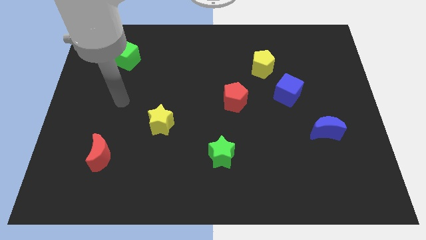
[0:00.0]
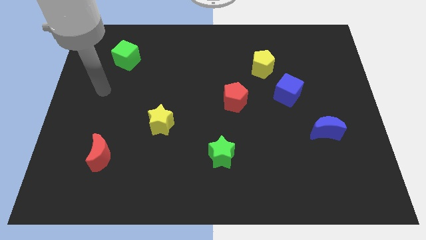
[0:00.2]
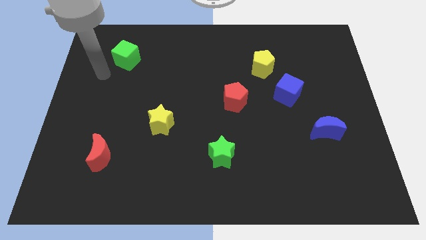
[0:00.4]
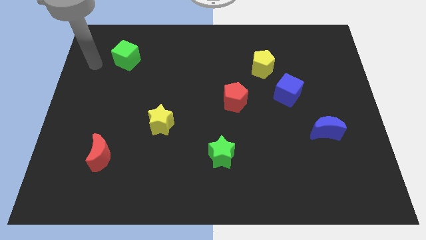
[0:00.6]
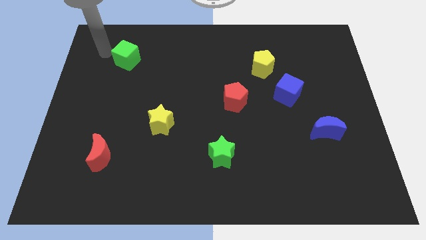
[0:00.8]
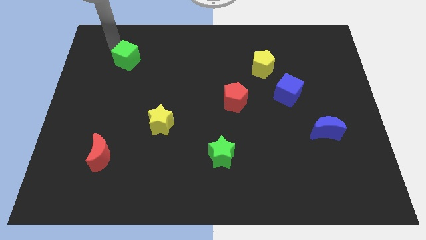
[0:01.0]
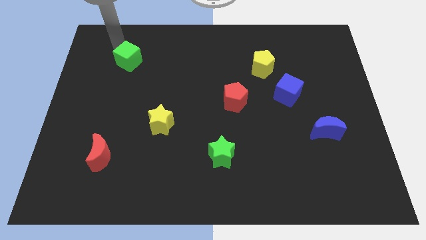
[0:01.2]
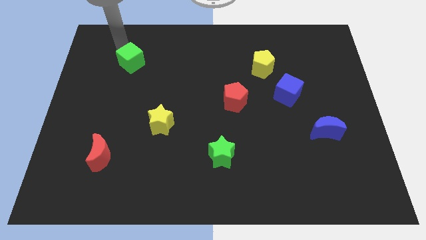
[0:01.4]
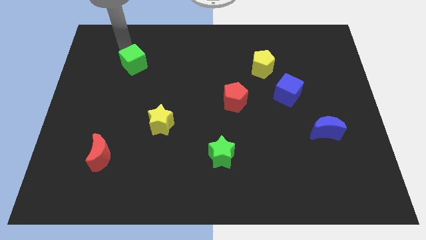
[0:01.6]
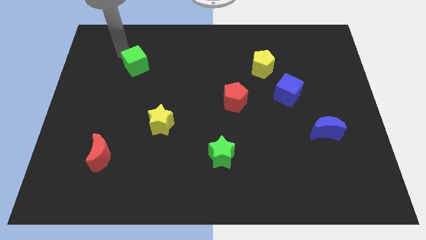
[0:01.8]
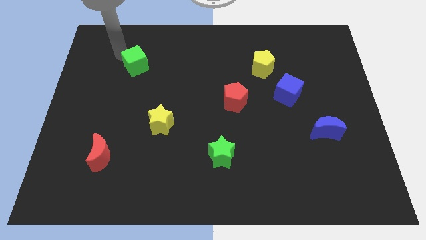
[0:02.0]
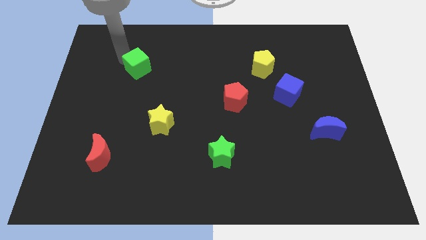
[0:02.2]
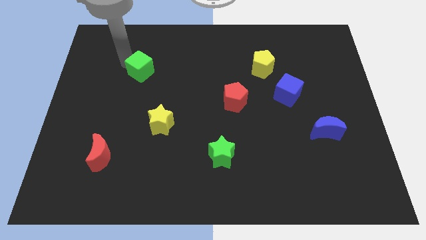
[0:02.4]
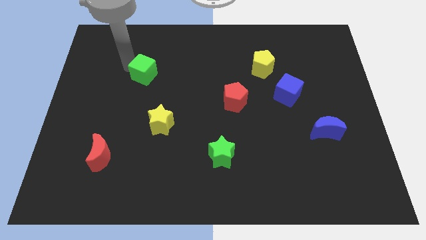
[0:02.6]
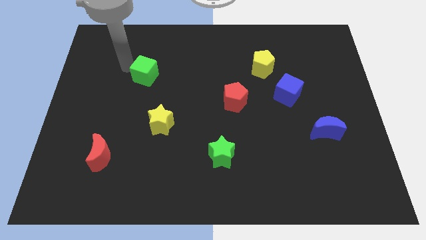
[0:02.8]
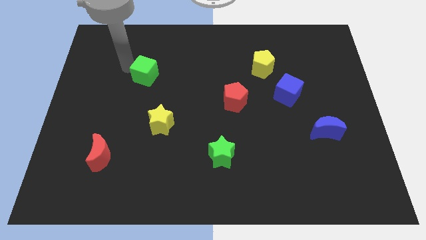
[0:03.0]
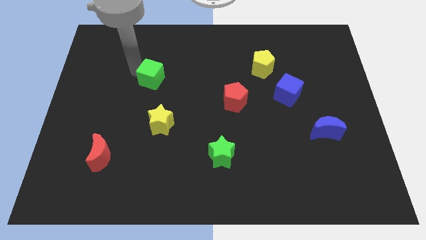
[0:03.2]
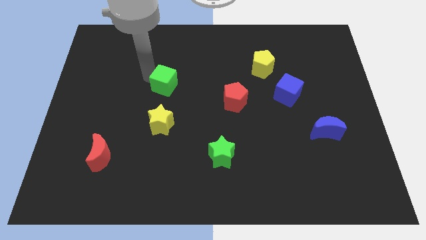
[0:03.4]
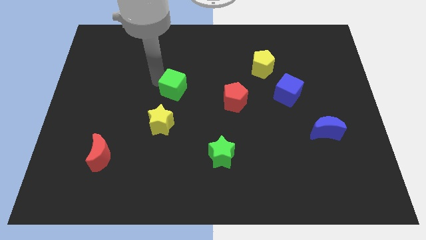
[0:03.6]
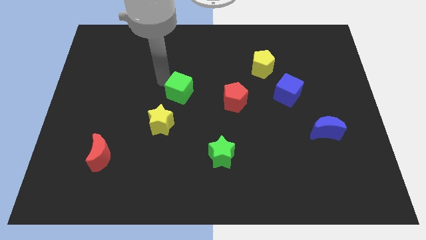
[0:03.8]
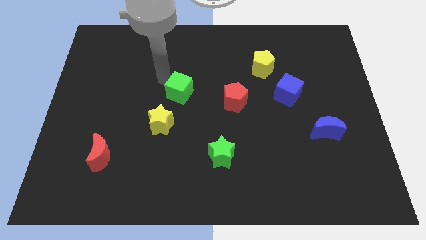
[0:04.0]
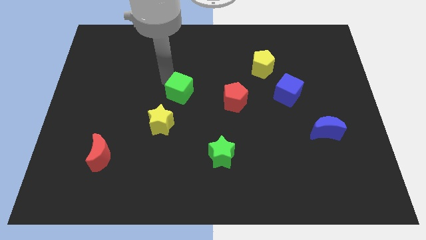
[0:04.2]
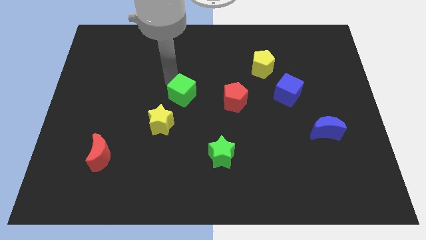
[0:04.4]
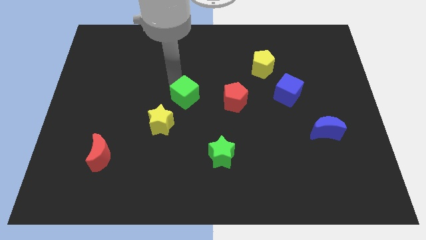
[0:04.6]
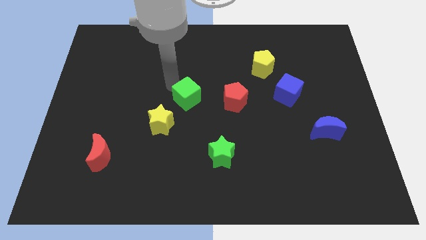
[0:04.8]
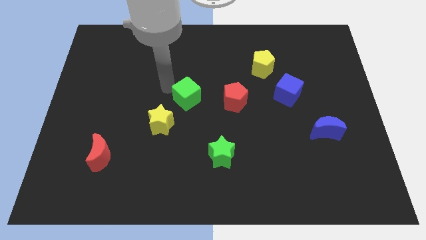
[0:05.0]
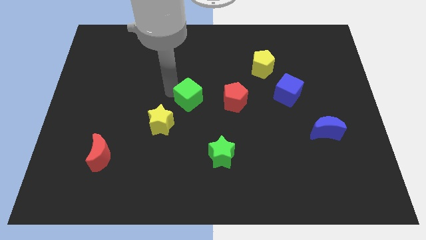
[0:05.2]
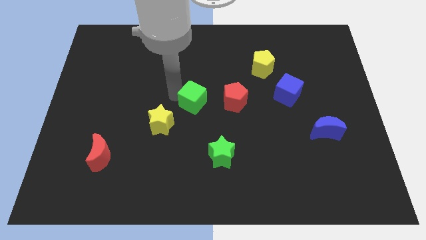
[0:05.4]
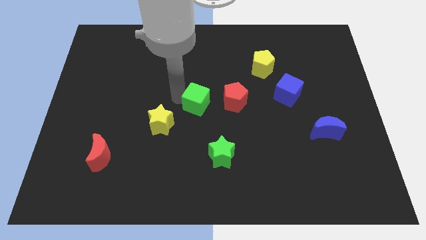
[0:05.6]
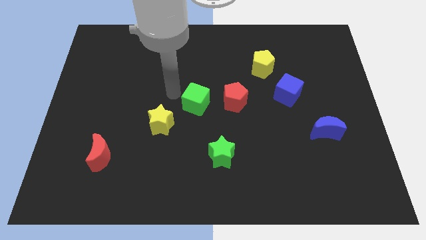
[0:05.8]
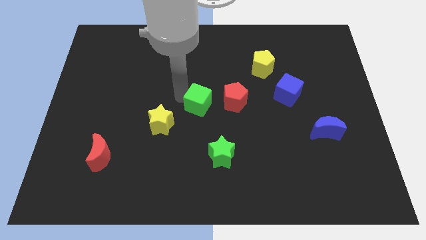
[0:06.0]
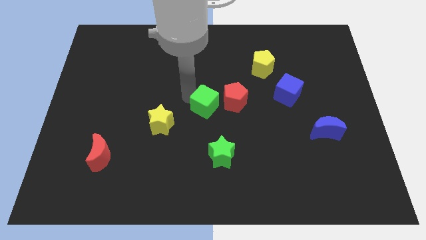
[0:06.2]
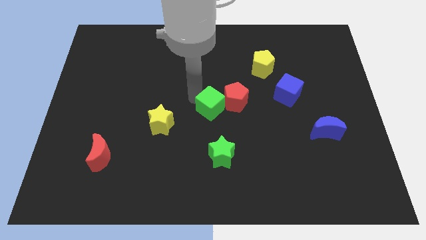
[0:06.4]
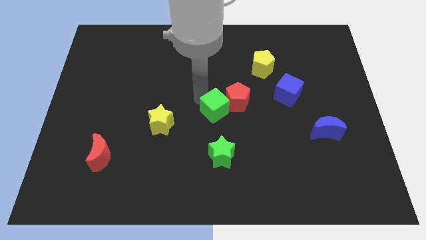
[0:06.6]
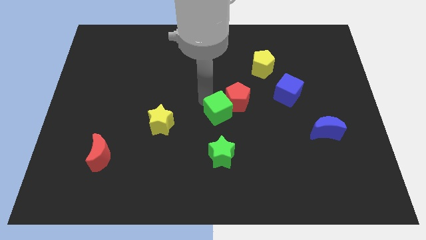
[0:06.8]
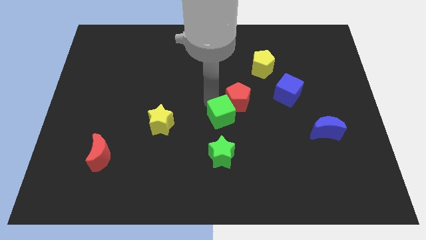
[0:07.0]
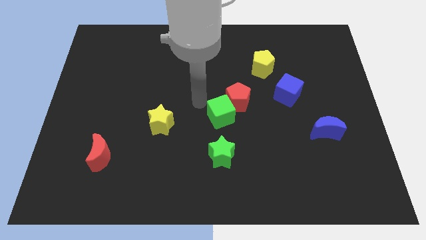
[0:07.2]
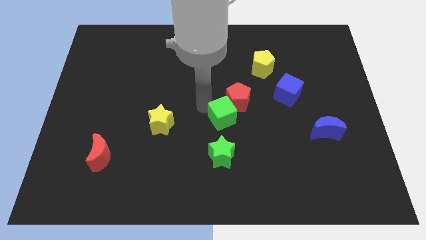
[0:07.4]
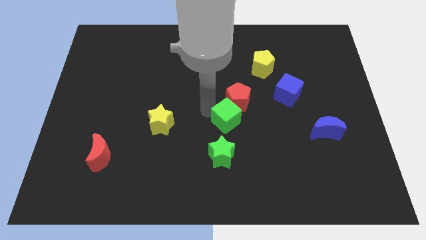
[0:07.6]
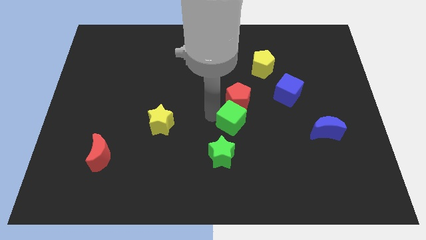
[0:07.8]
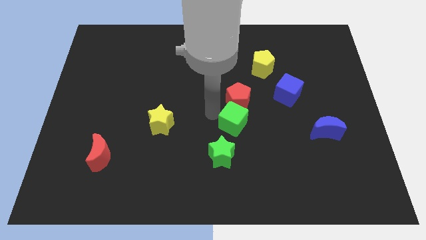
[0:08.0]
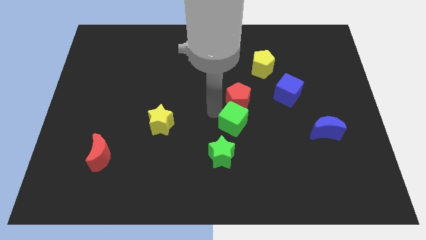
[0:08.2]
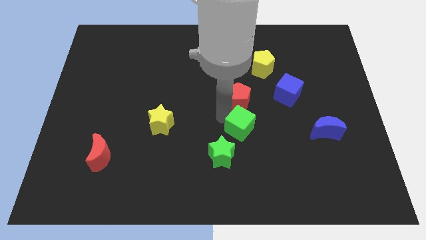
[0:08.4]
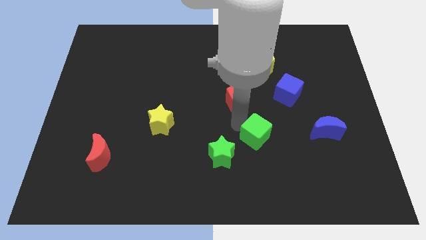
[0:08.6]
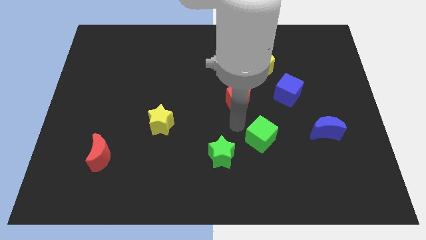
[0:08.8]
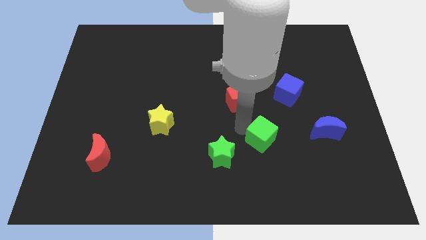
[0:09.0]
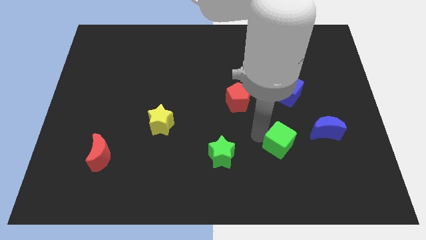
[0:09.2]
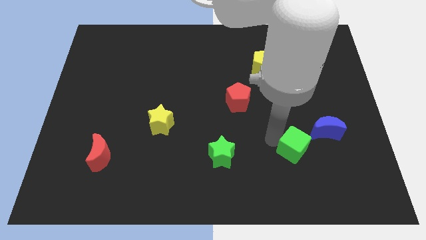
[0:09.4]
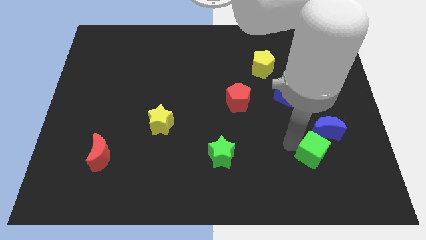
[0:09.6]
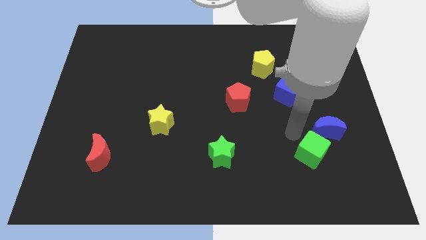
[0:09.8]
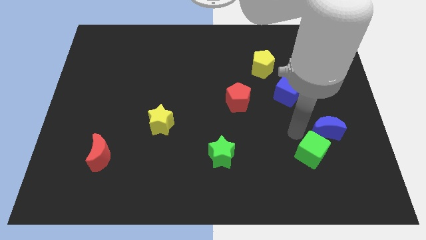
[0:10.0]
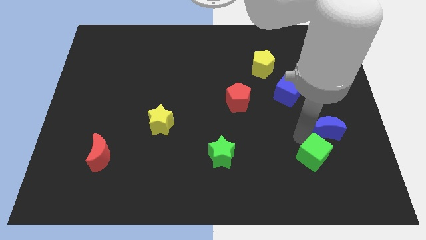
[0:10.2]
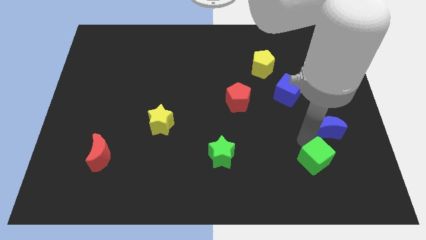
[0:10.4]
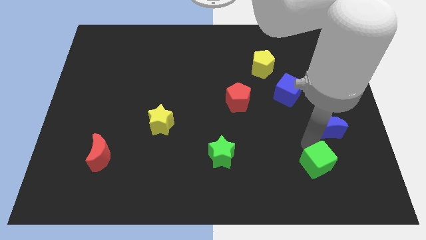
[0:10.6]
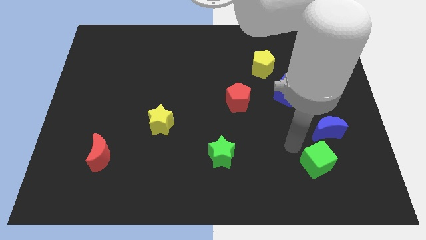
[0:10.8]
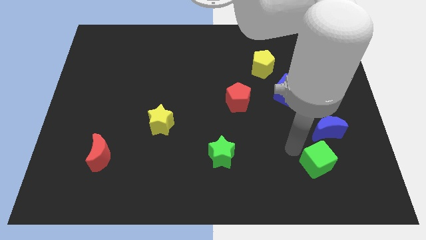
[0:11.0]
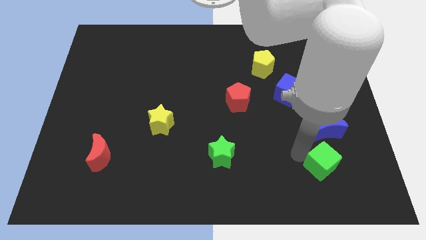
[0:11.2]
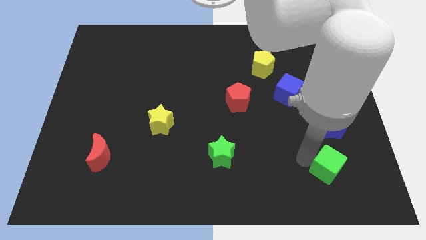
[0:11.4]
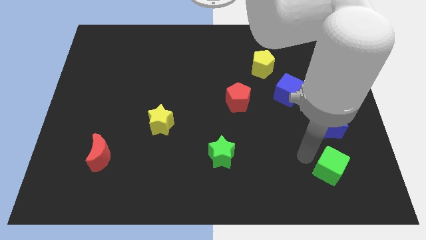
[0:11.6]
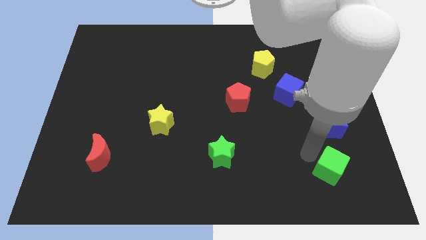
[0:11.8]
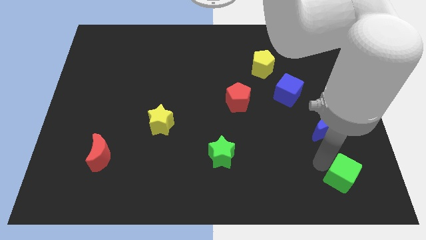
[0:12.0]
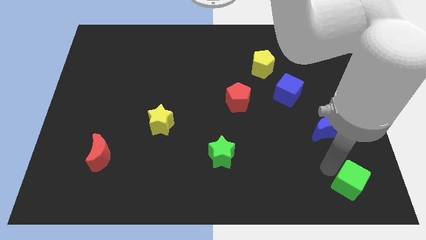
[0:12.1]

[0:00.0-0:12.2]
push the green cube to the bottom right of the board
